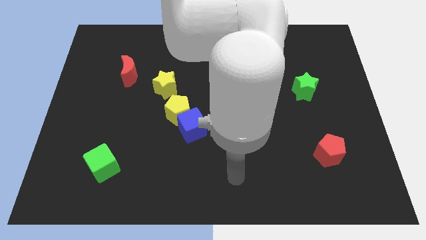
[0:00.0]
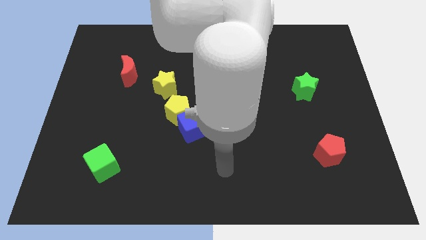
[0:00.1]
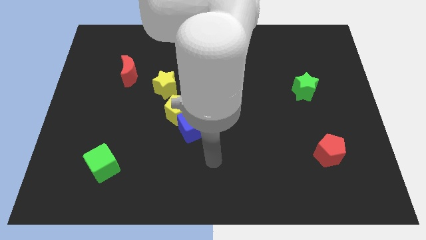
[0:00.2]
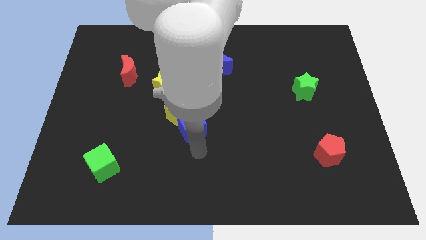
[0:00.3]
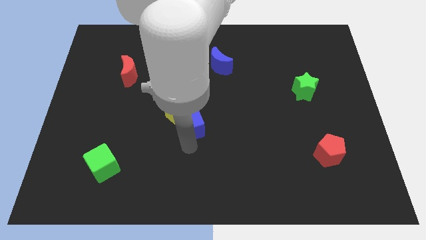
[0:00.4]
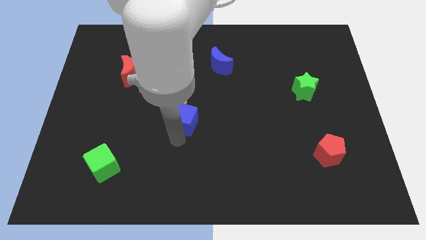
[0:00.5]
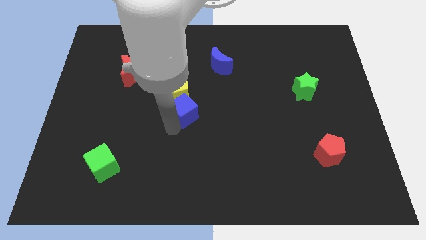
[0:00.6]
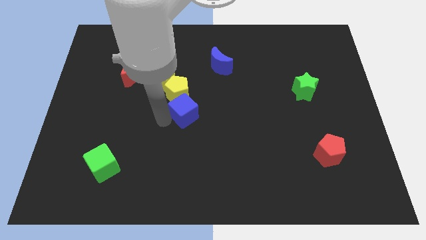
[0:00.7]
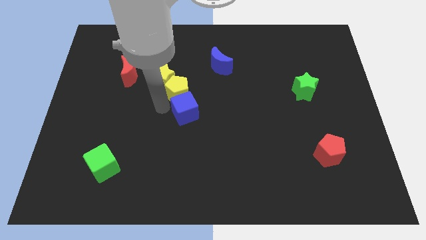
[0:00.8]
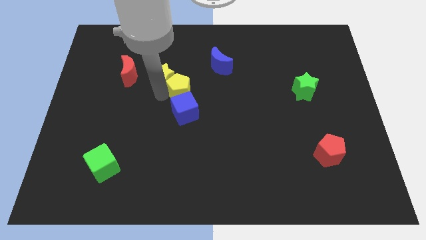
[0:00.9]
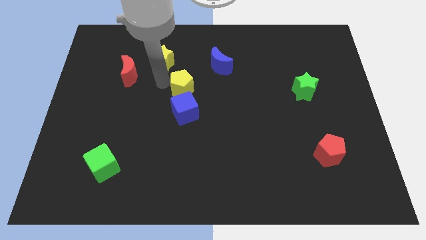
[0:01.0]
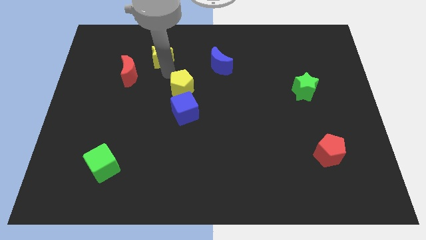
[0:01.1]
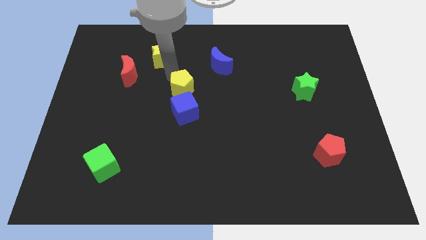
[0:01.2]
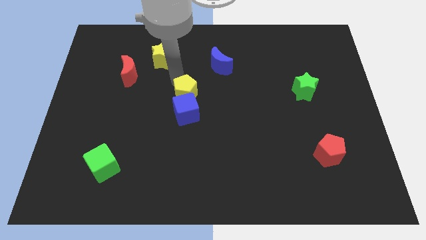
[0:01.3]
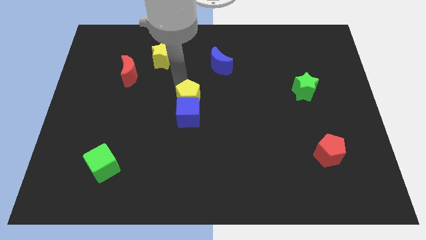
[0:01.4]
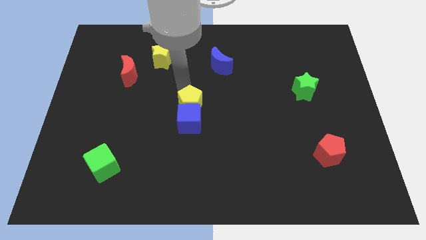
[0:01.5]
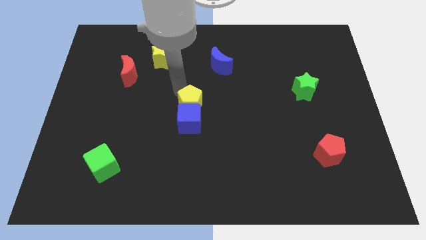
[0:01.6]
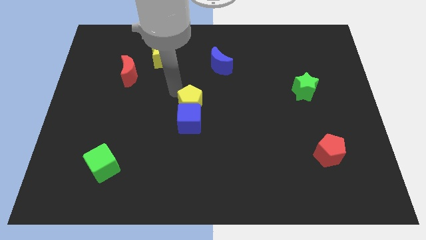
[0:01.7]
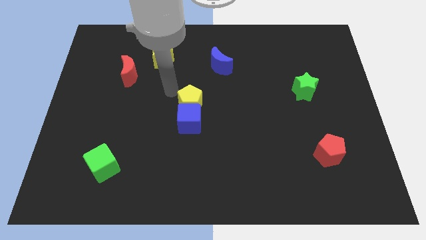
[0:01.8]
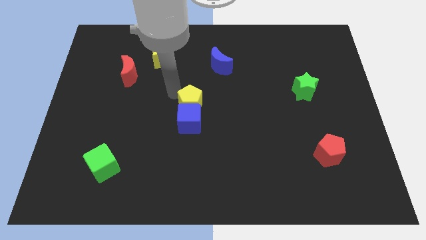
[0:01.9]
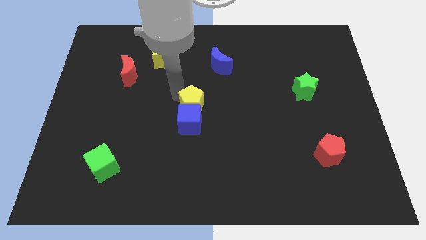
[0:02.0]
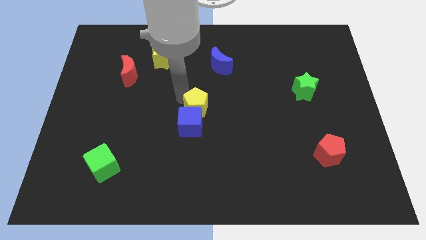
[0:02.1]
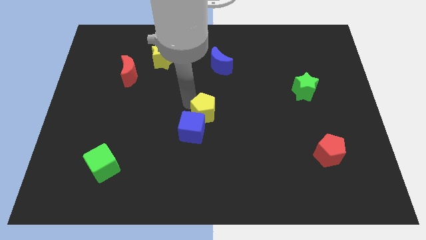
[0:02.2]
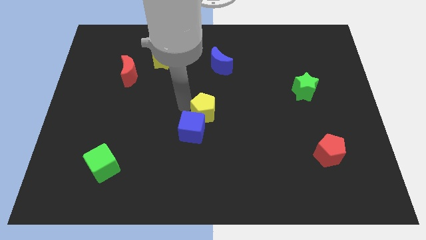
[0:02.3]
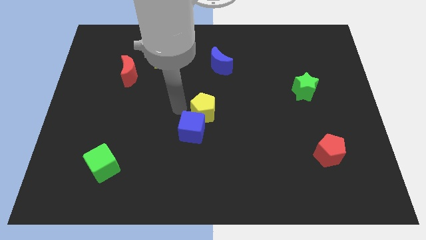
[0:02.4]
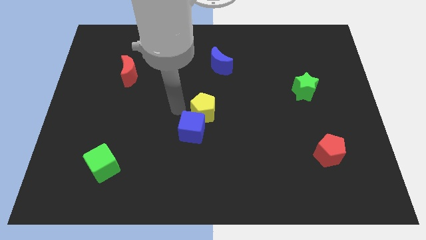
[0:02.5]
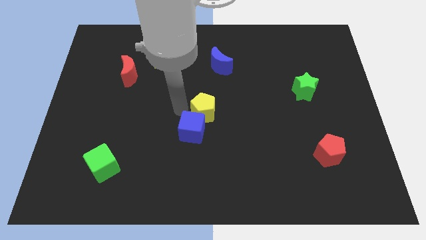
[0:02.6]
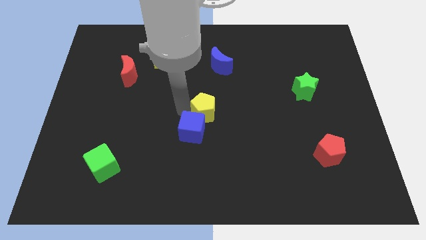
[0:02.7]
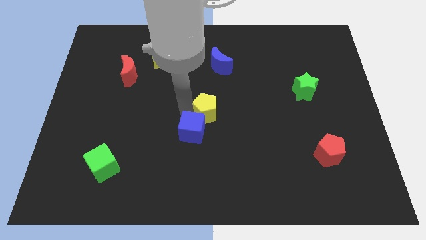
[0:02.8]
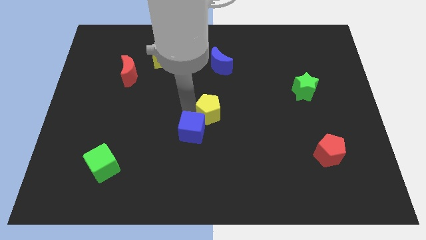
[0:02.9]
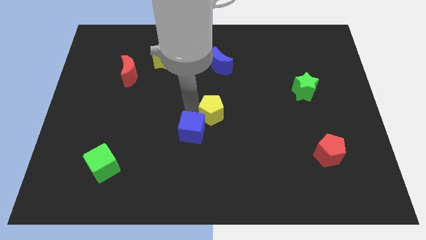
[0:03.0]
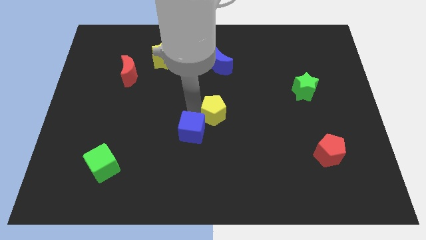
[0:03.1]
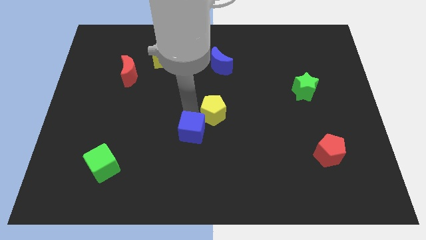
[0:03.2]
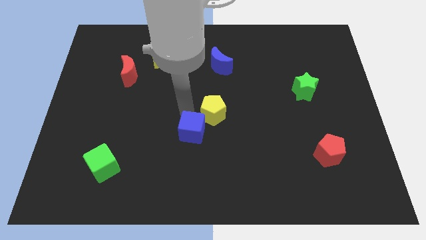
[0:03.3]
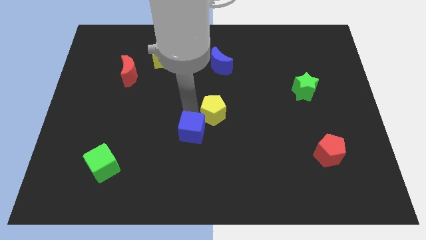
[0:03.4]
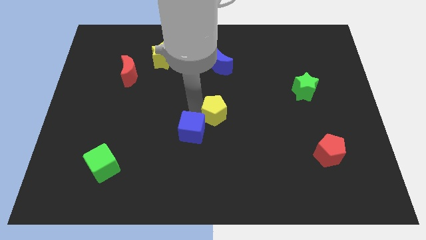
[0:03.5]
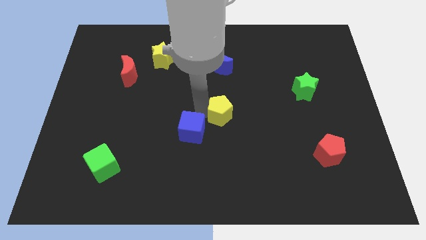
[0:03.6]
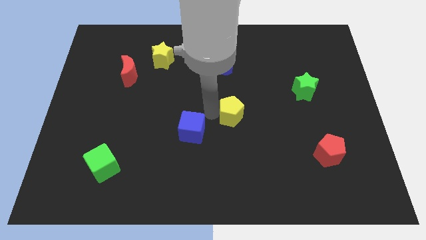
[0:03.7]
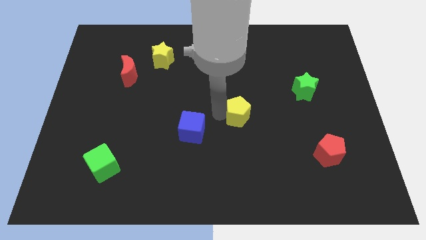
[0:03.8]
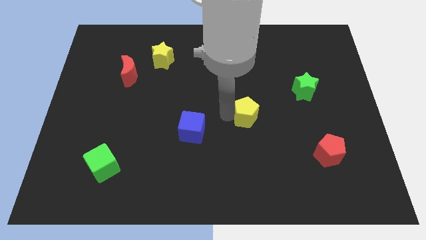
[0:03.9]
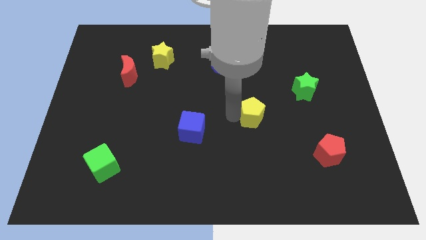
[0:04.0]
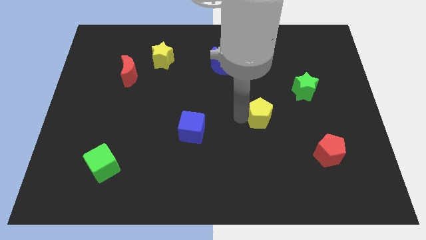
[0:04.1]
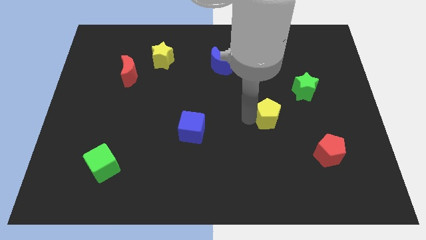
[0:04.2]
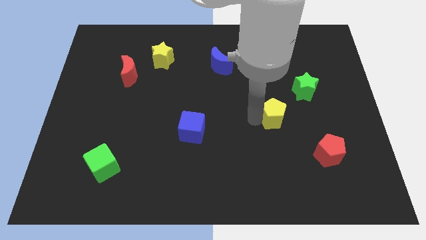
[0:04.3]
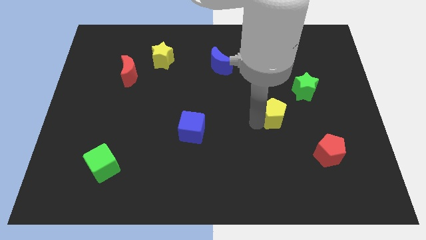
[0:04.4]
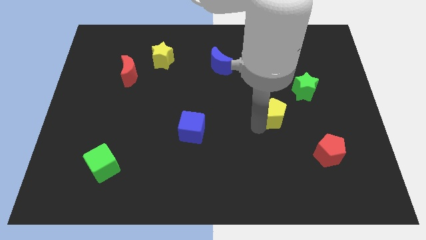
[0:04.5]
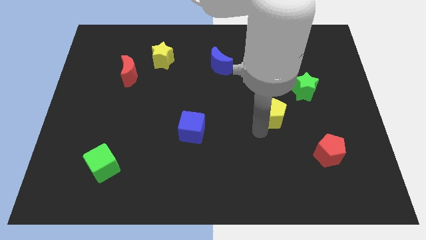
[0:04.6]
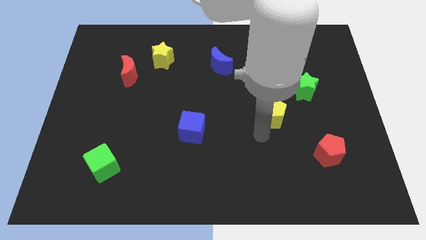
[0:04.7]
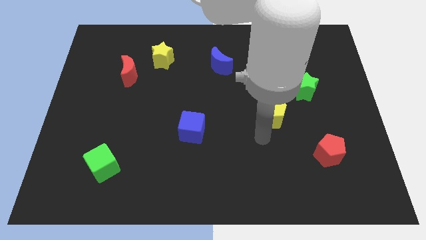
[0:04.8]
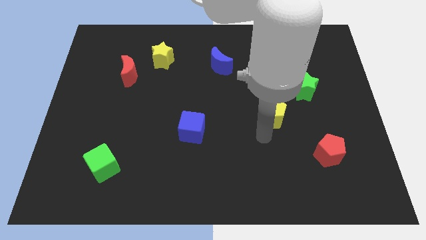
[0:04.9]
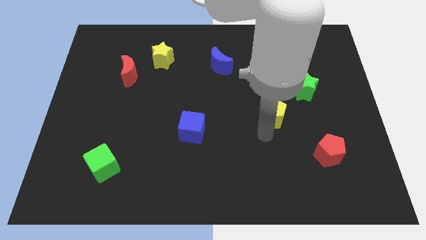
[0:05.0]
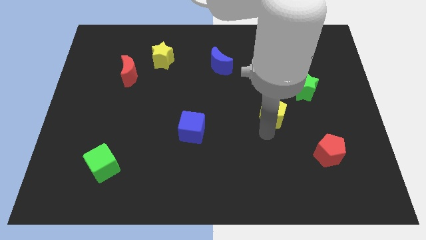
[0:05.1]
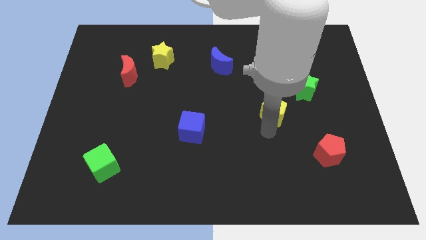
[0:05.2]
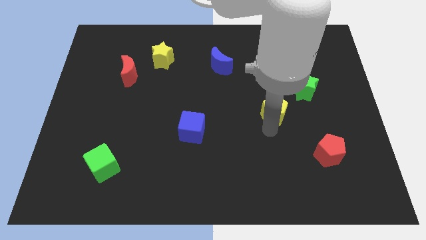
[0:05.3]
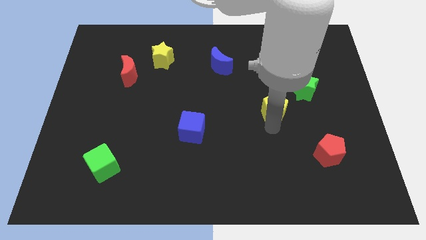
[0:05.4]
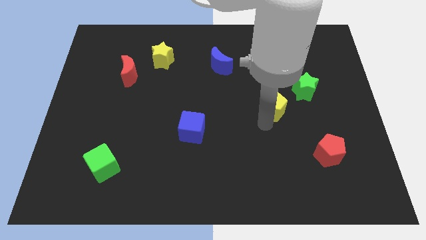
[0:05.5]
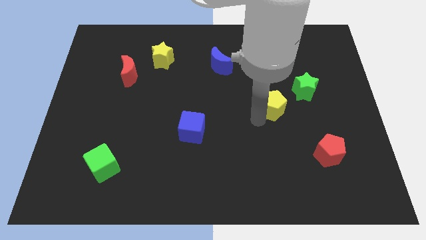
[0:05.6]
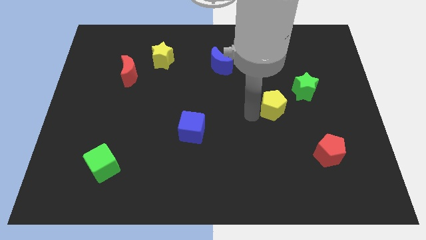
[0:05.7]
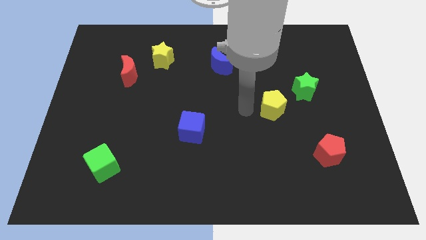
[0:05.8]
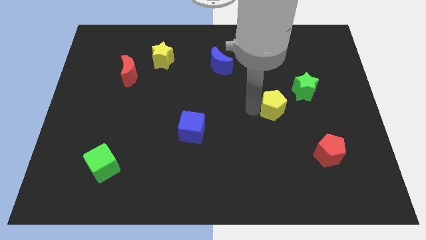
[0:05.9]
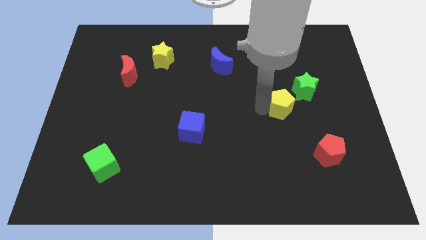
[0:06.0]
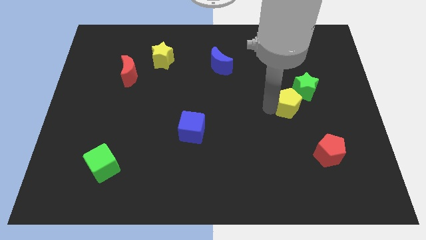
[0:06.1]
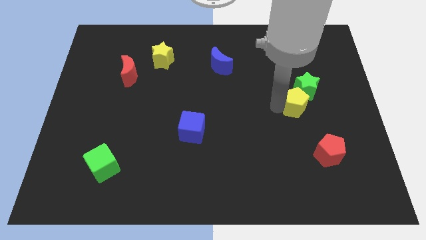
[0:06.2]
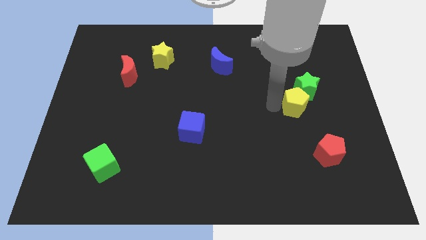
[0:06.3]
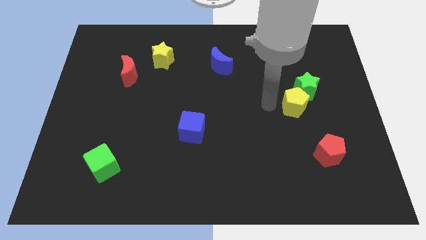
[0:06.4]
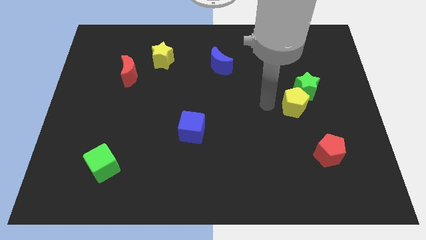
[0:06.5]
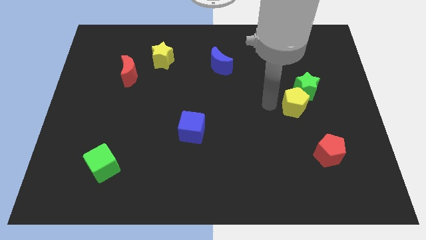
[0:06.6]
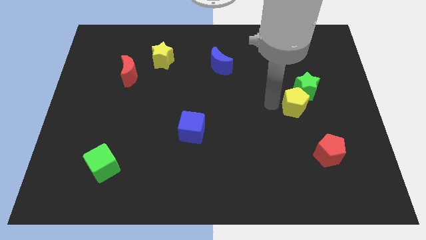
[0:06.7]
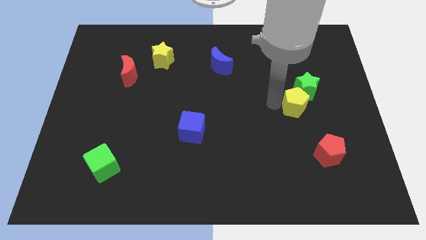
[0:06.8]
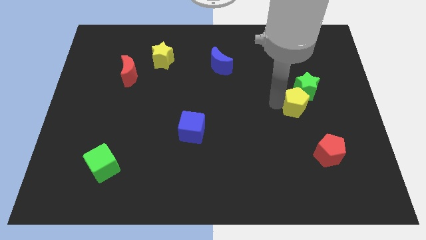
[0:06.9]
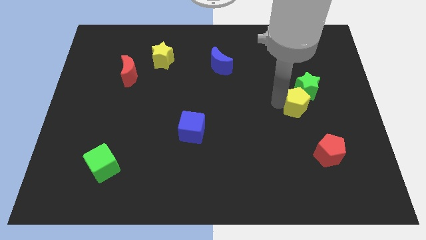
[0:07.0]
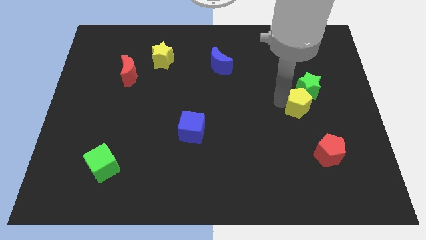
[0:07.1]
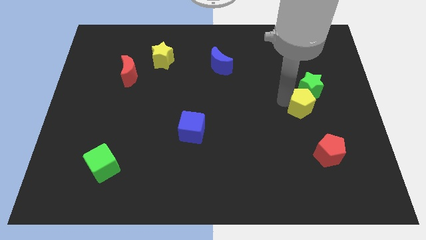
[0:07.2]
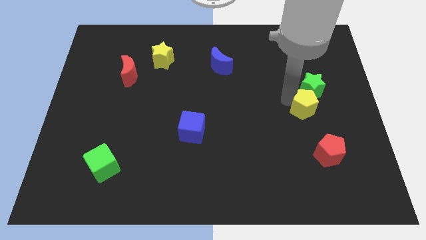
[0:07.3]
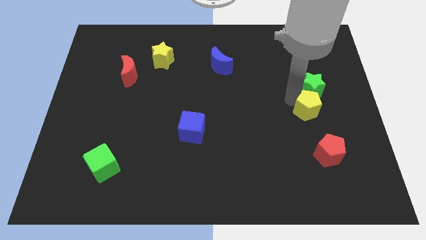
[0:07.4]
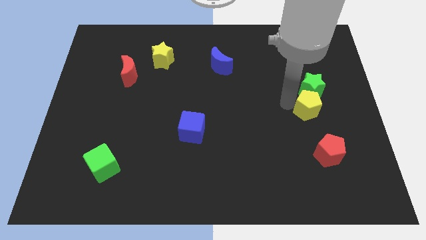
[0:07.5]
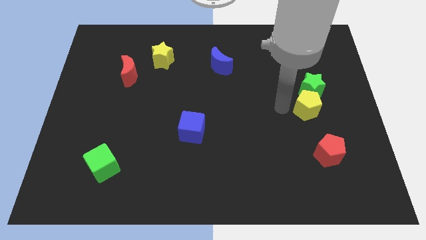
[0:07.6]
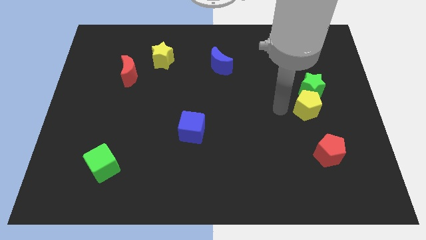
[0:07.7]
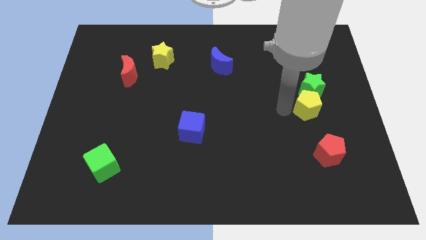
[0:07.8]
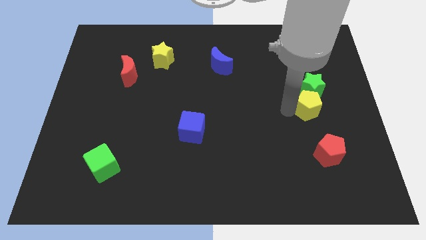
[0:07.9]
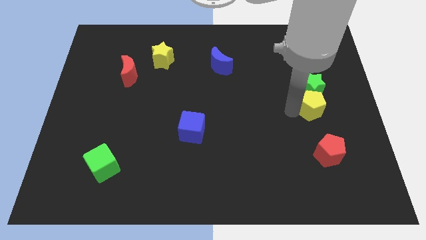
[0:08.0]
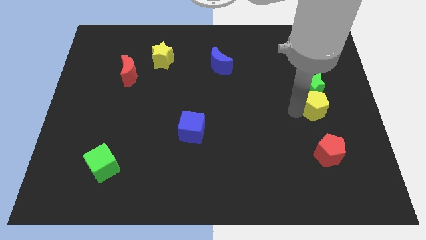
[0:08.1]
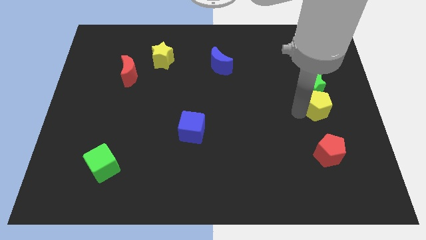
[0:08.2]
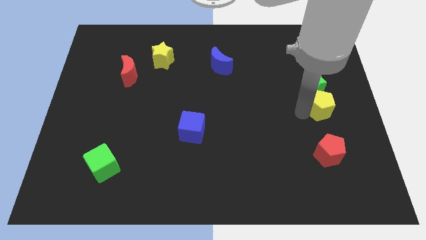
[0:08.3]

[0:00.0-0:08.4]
put the yellow pentagon to the right side of the board
